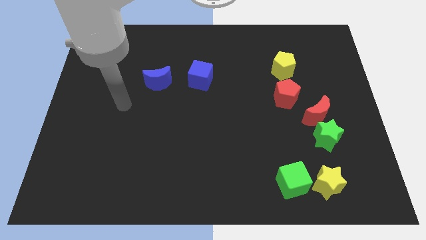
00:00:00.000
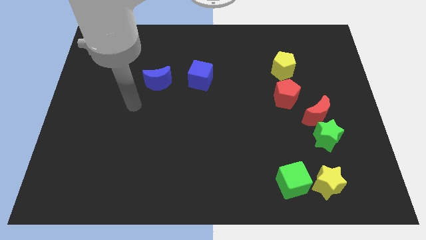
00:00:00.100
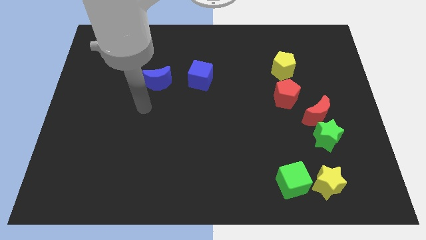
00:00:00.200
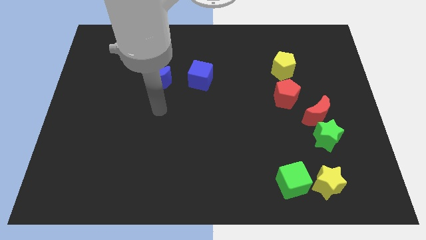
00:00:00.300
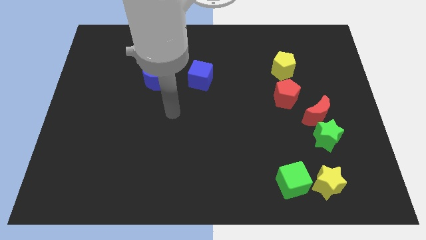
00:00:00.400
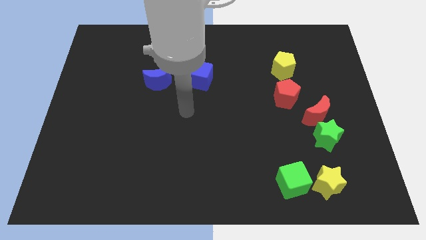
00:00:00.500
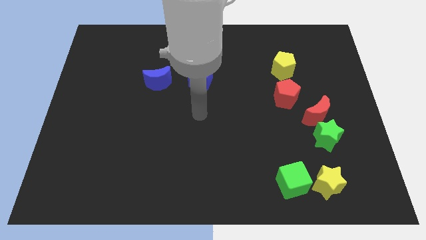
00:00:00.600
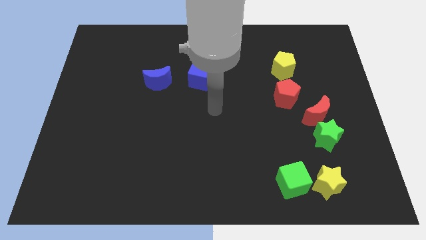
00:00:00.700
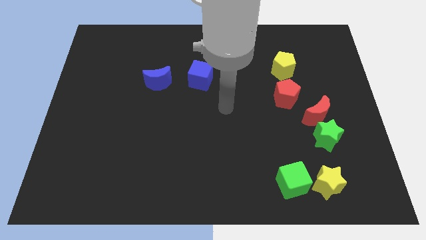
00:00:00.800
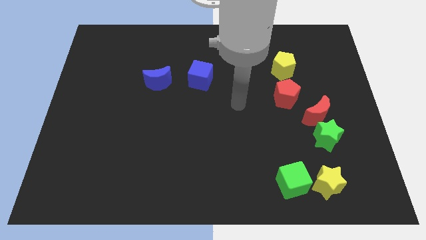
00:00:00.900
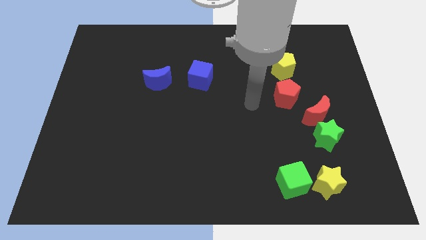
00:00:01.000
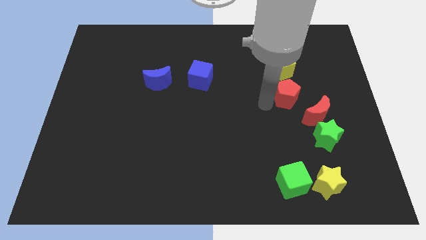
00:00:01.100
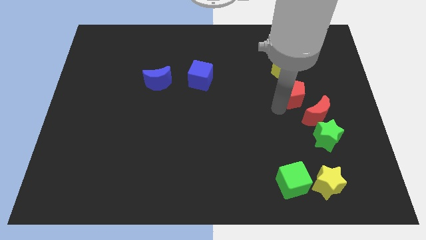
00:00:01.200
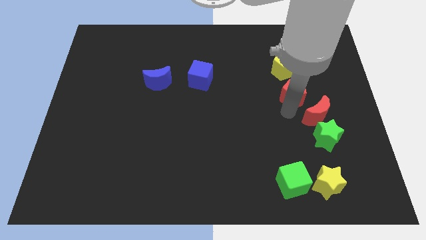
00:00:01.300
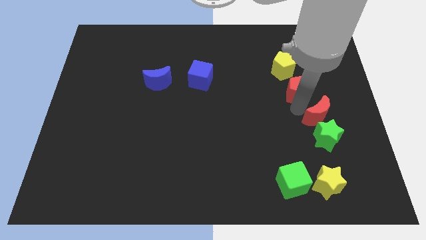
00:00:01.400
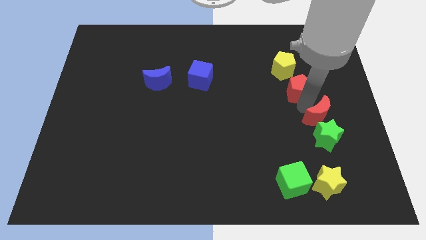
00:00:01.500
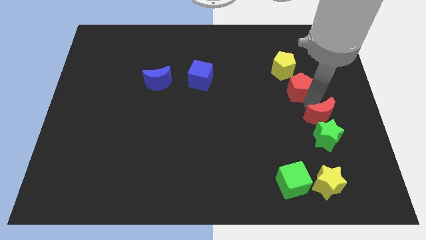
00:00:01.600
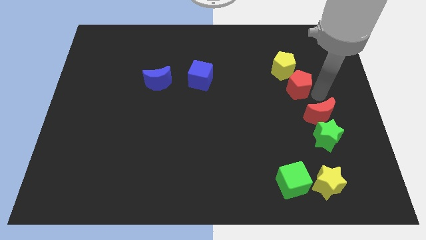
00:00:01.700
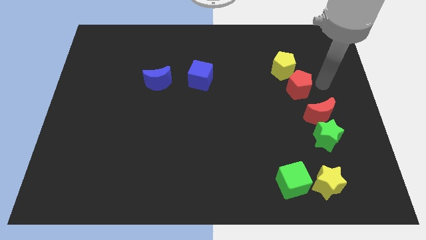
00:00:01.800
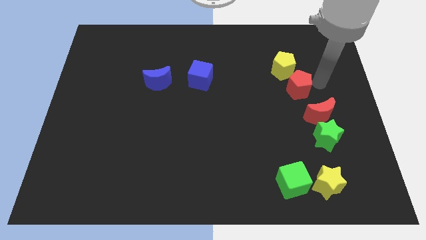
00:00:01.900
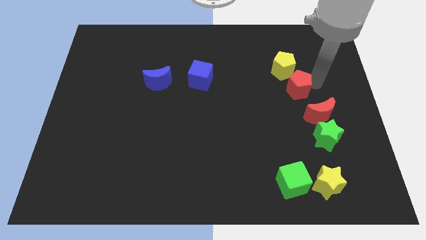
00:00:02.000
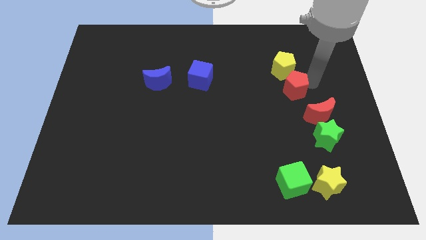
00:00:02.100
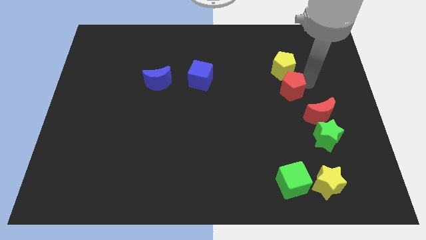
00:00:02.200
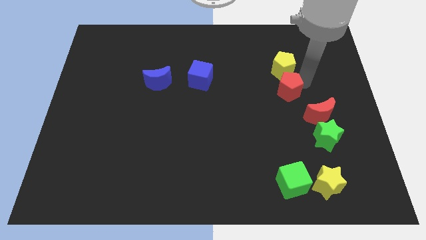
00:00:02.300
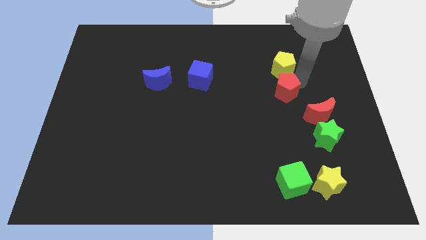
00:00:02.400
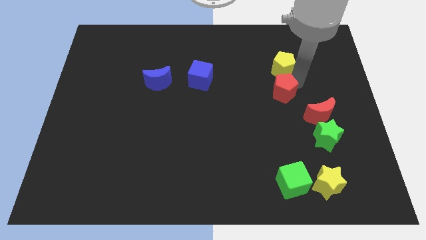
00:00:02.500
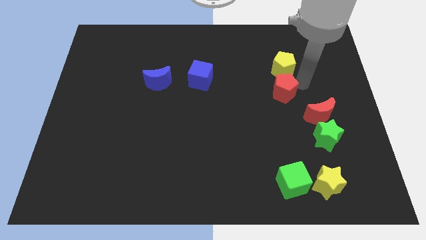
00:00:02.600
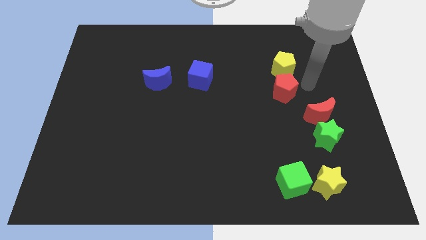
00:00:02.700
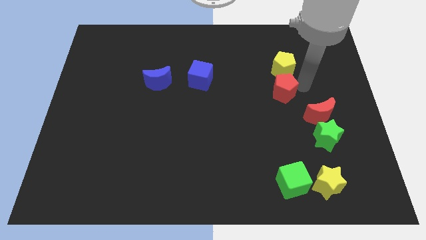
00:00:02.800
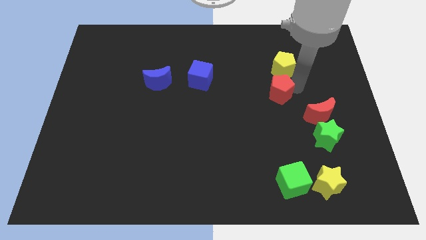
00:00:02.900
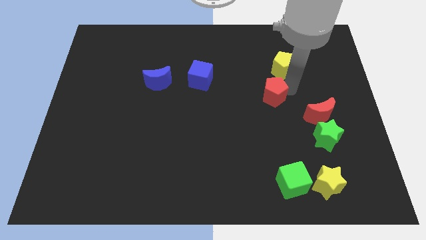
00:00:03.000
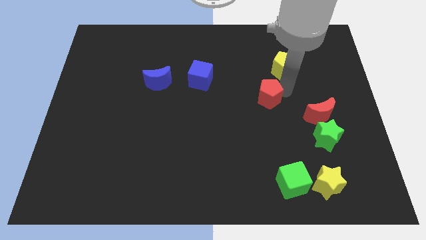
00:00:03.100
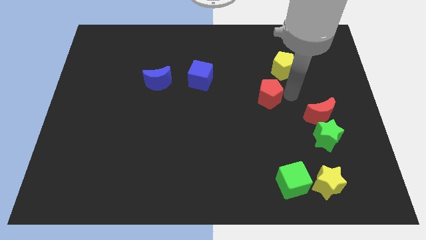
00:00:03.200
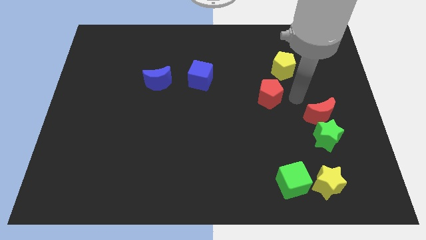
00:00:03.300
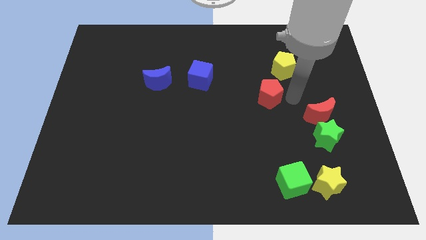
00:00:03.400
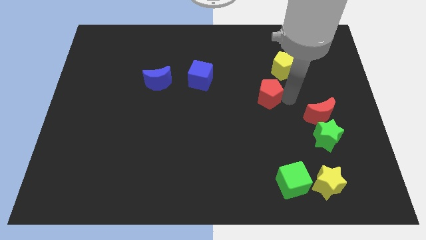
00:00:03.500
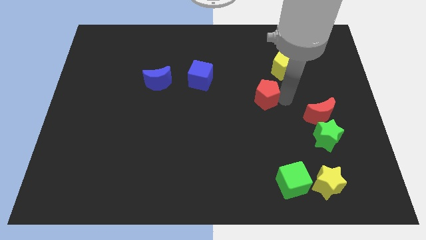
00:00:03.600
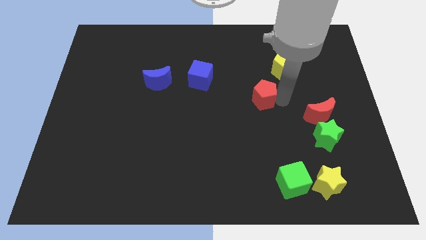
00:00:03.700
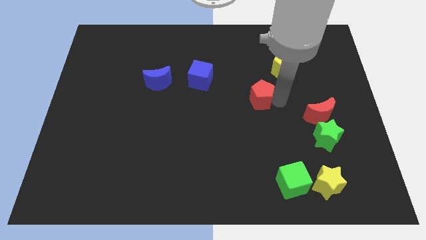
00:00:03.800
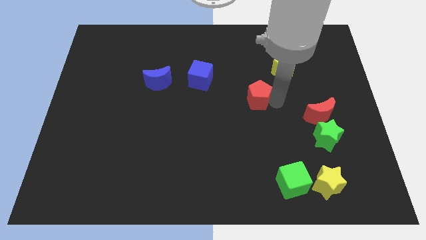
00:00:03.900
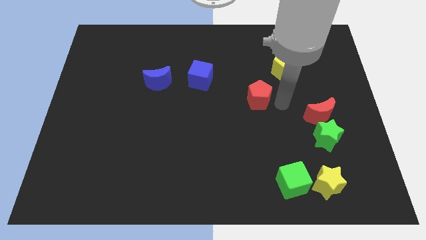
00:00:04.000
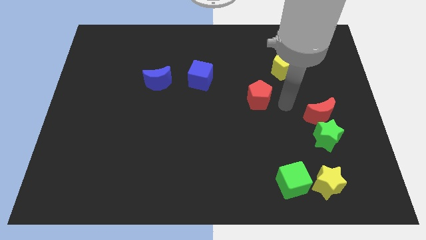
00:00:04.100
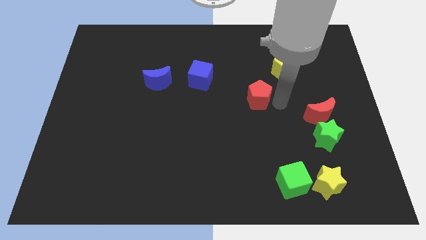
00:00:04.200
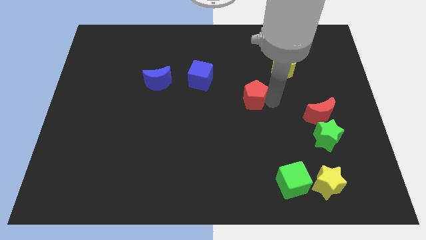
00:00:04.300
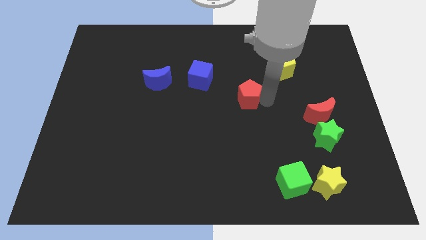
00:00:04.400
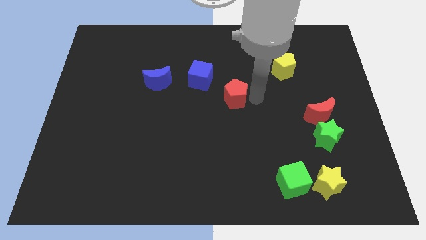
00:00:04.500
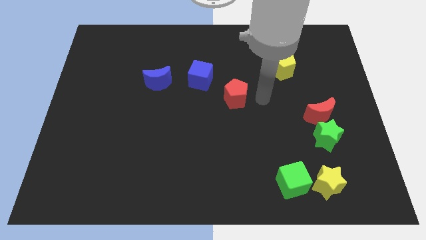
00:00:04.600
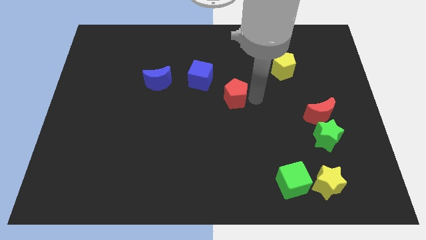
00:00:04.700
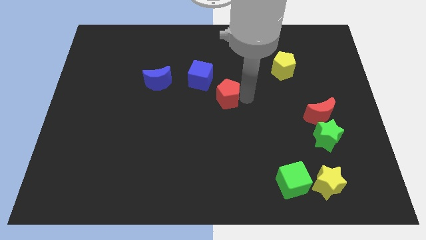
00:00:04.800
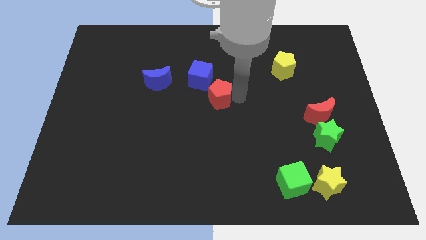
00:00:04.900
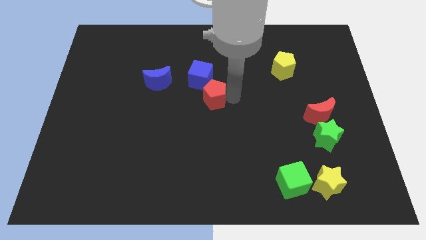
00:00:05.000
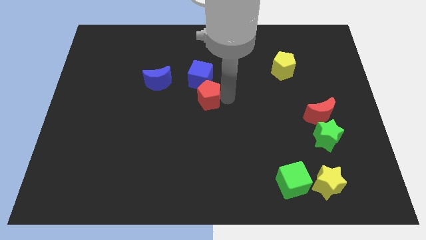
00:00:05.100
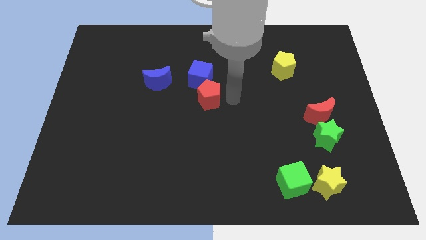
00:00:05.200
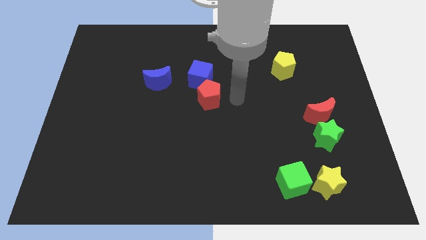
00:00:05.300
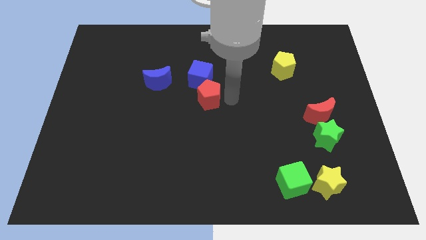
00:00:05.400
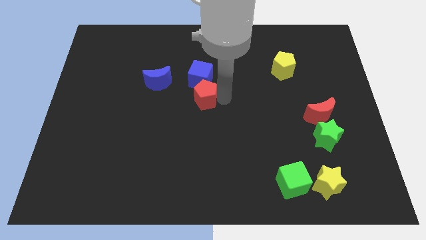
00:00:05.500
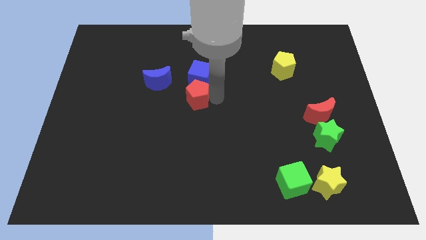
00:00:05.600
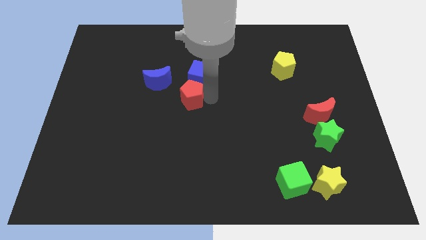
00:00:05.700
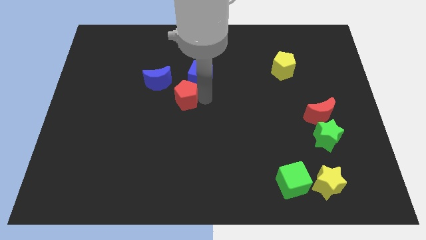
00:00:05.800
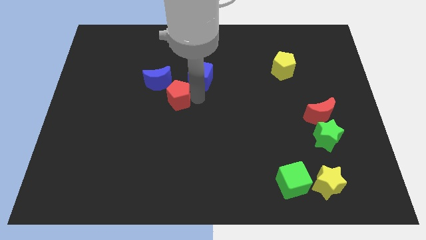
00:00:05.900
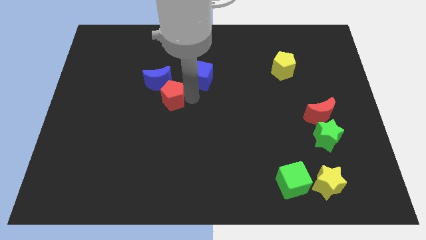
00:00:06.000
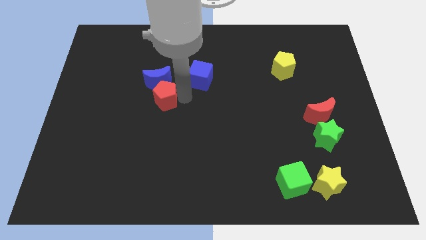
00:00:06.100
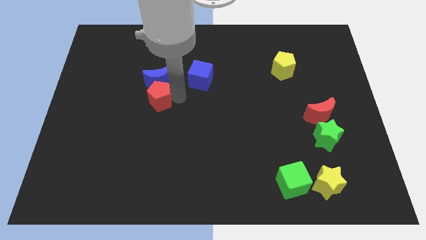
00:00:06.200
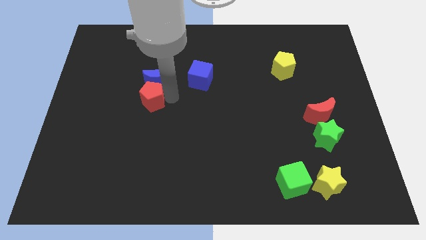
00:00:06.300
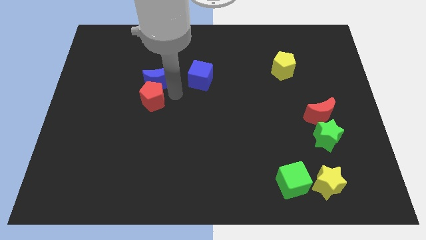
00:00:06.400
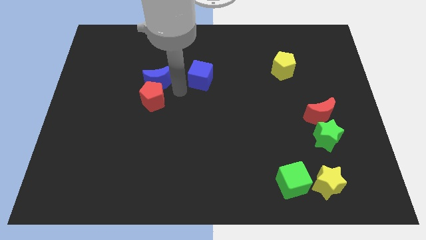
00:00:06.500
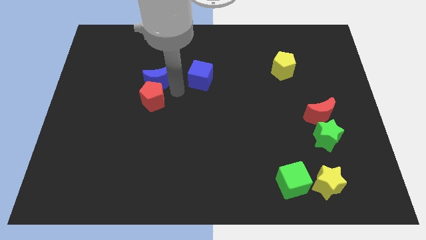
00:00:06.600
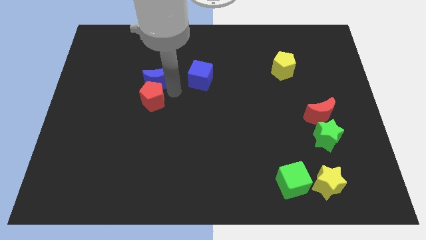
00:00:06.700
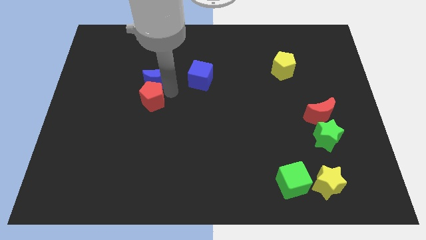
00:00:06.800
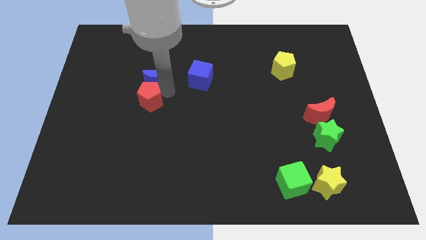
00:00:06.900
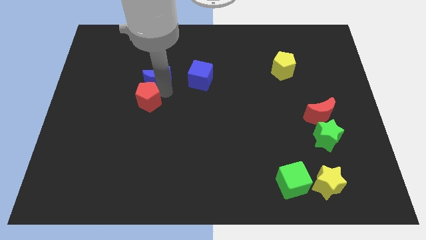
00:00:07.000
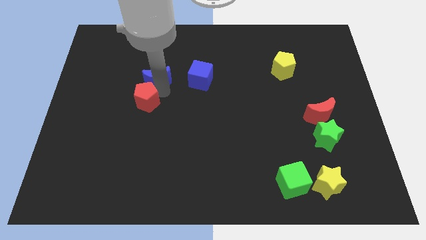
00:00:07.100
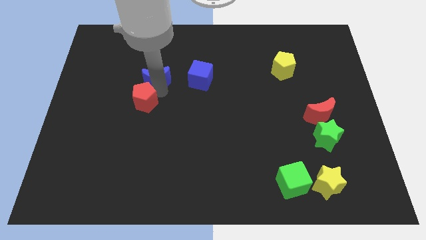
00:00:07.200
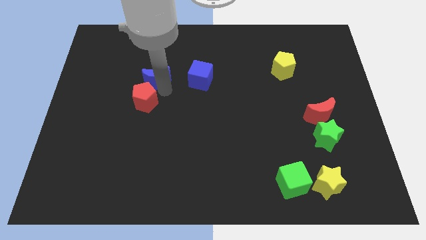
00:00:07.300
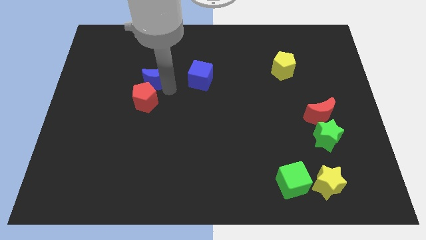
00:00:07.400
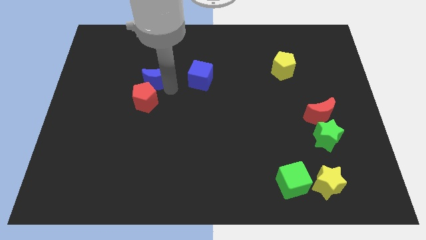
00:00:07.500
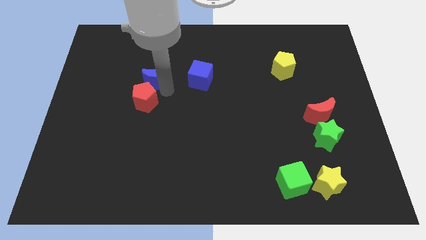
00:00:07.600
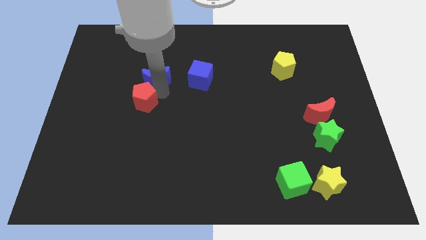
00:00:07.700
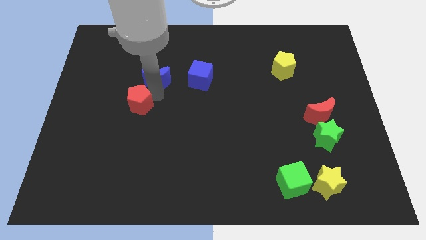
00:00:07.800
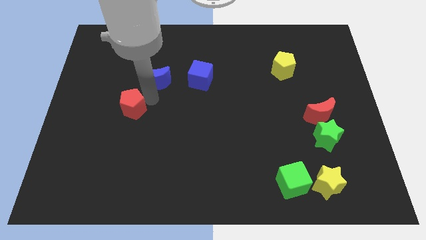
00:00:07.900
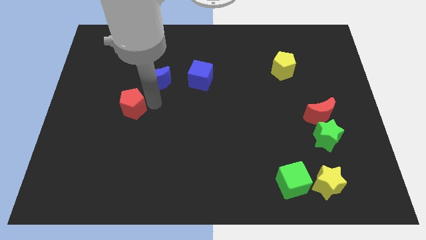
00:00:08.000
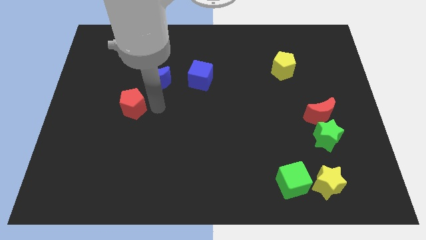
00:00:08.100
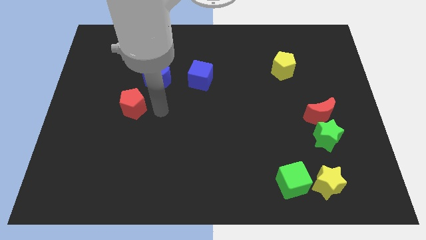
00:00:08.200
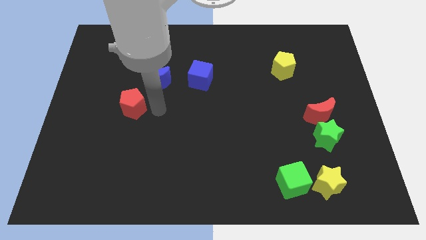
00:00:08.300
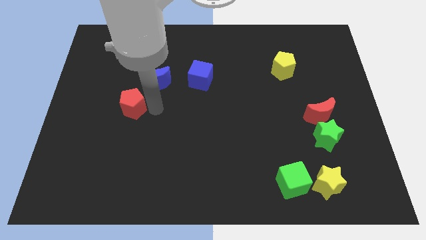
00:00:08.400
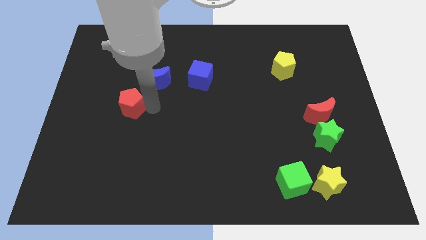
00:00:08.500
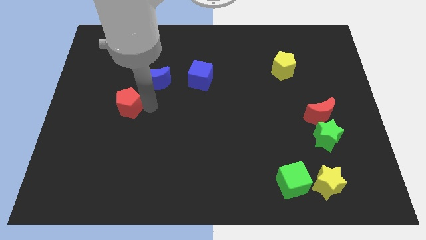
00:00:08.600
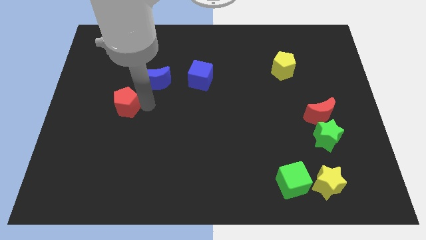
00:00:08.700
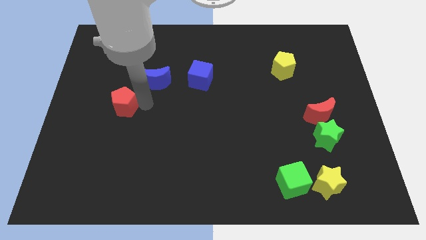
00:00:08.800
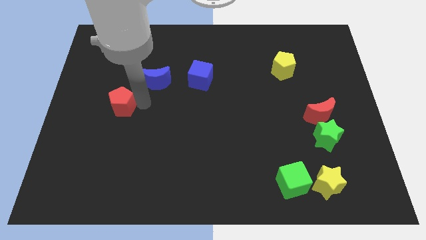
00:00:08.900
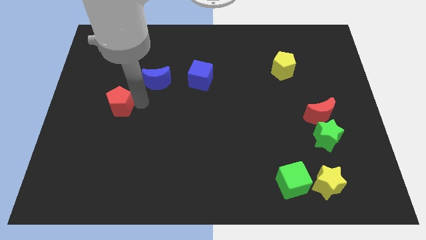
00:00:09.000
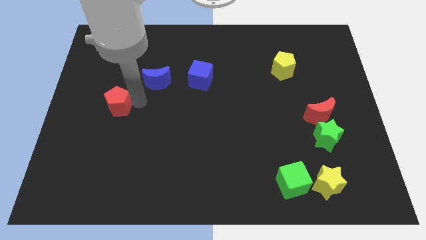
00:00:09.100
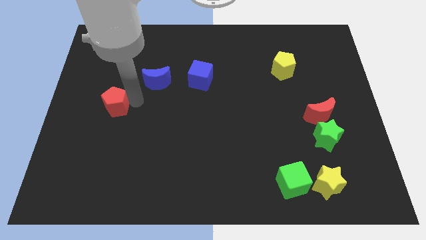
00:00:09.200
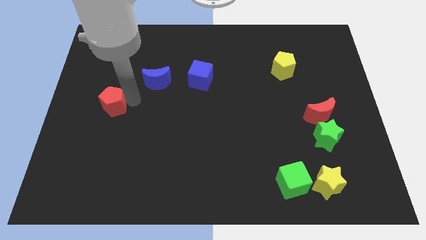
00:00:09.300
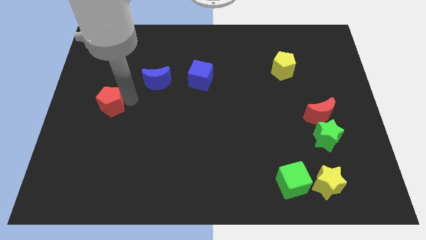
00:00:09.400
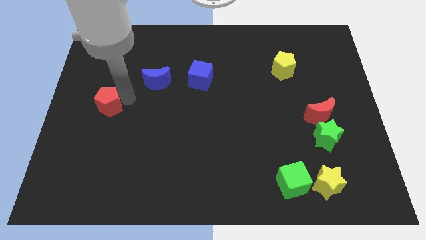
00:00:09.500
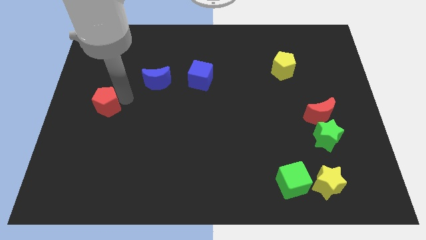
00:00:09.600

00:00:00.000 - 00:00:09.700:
slide the red pentagon to the left side
